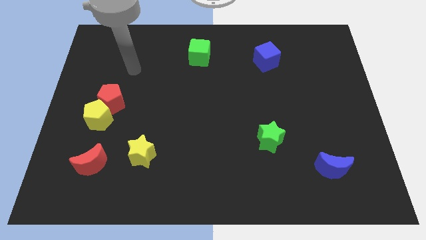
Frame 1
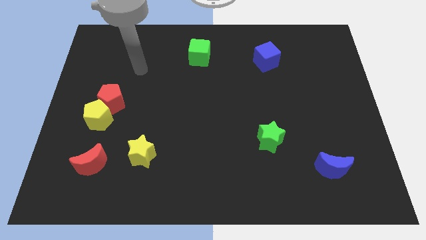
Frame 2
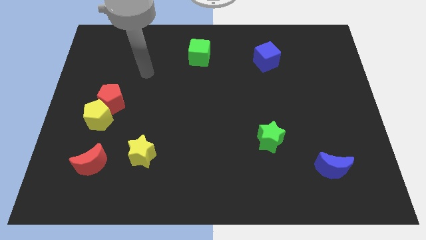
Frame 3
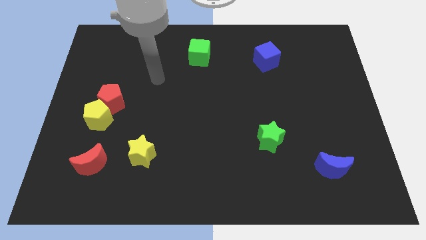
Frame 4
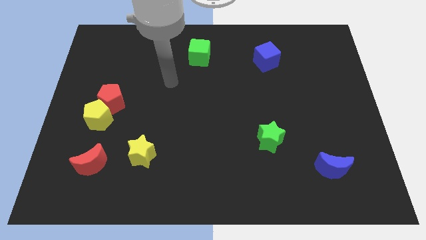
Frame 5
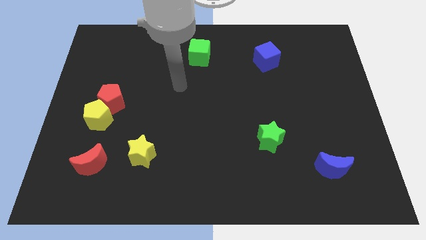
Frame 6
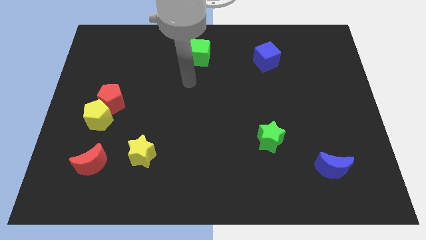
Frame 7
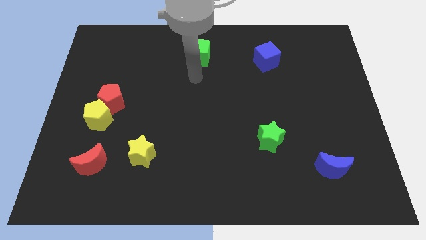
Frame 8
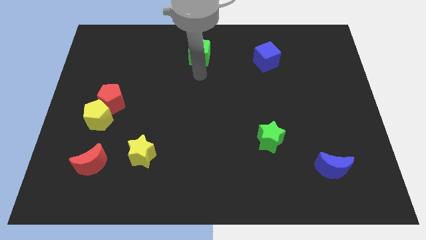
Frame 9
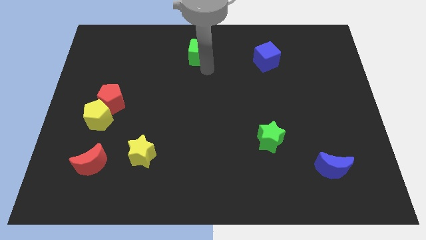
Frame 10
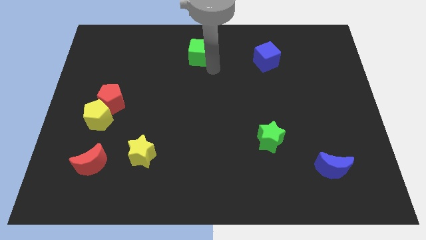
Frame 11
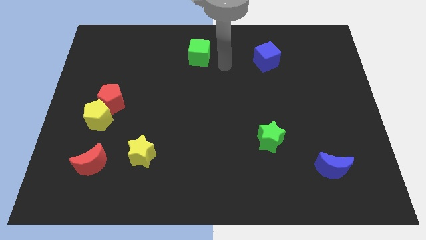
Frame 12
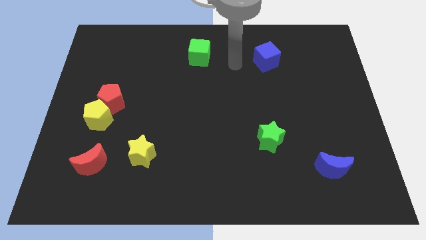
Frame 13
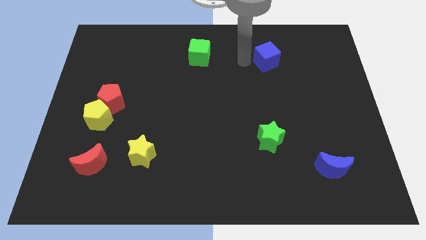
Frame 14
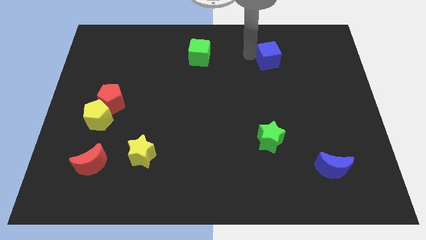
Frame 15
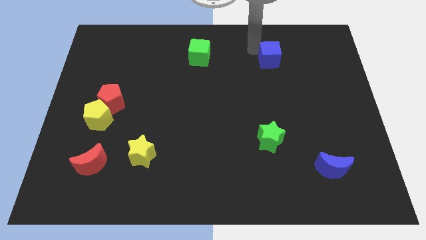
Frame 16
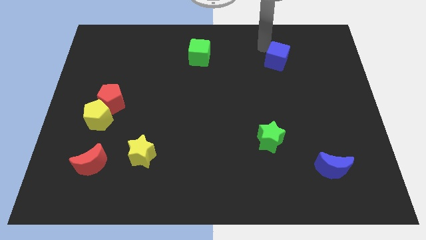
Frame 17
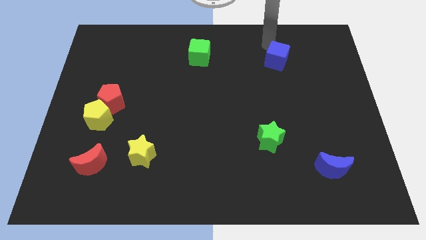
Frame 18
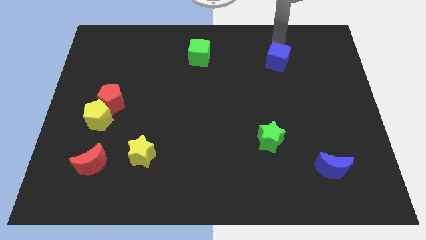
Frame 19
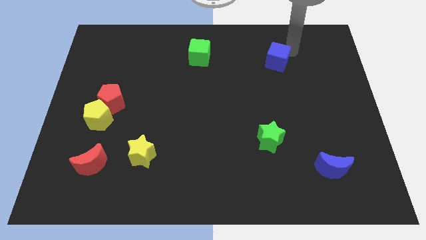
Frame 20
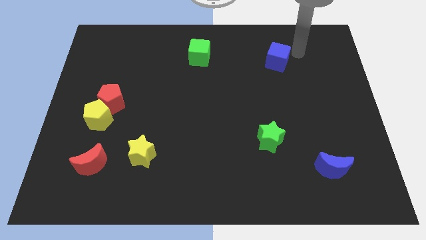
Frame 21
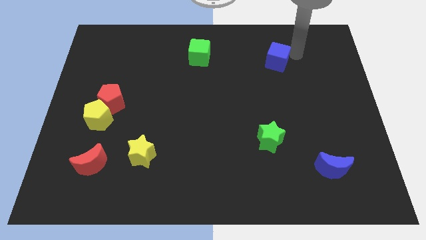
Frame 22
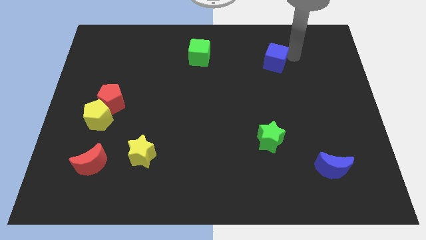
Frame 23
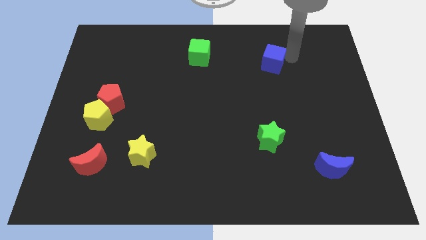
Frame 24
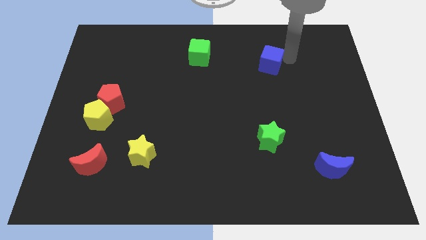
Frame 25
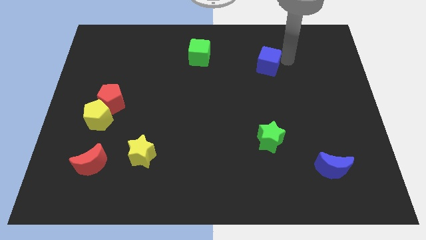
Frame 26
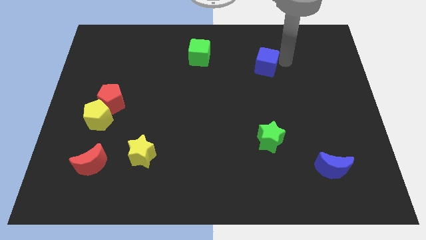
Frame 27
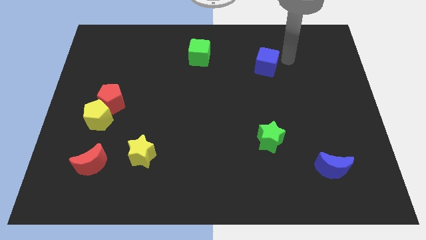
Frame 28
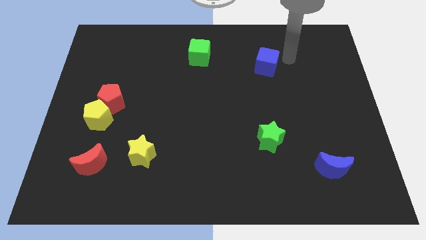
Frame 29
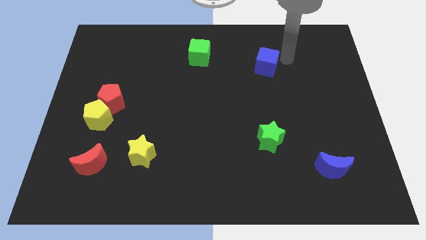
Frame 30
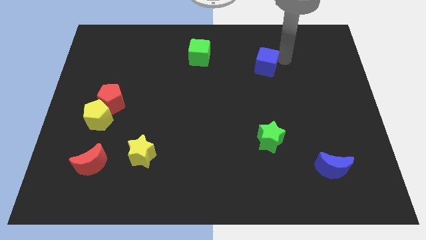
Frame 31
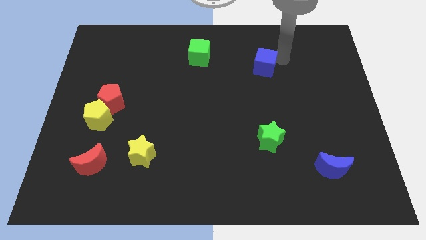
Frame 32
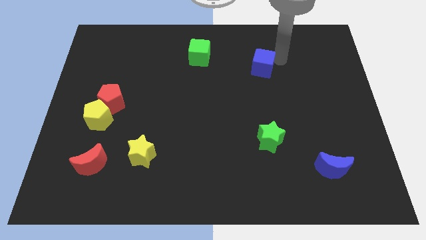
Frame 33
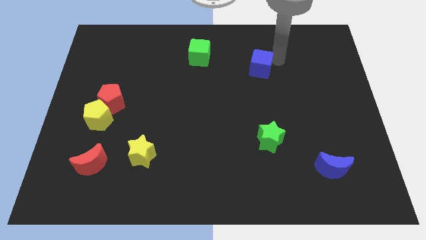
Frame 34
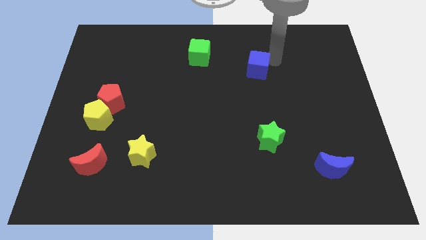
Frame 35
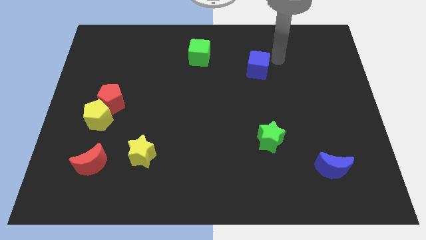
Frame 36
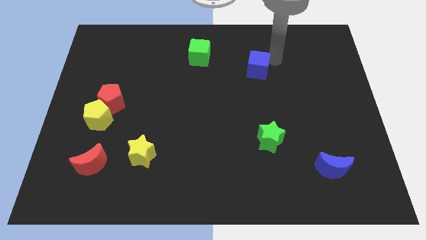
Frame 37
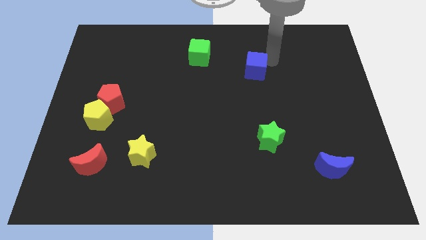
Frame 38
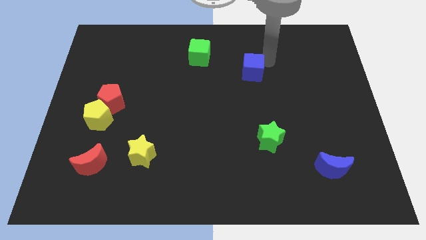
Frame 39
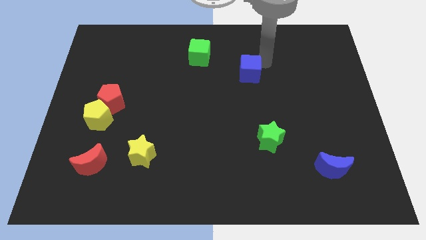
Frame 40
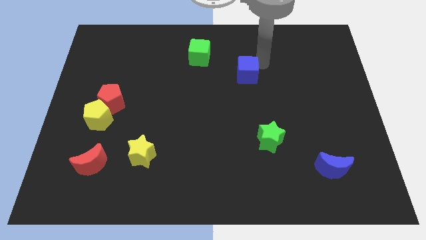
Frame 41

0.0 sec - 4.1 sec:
move the blue cube slightly downwards and left diagonally

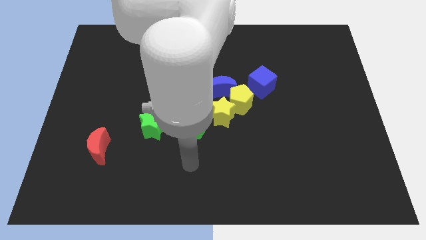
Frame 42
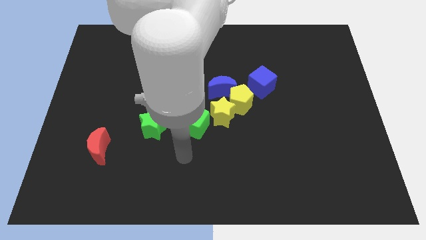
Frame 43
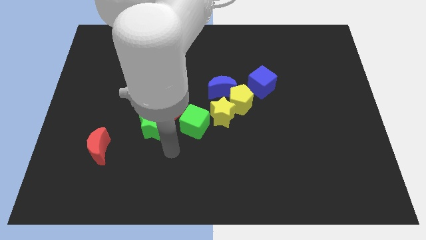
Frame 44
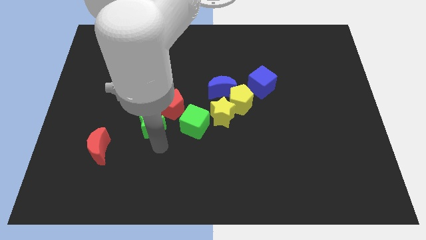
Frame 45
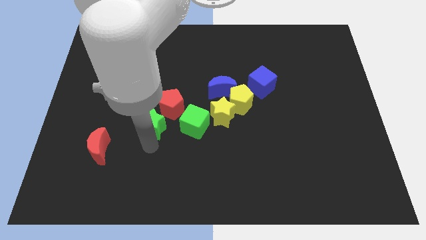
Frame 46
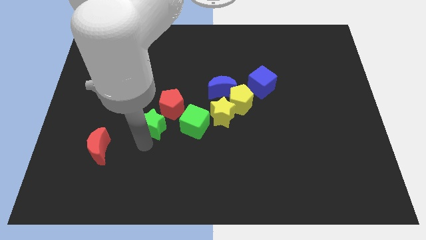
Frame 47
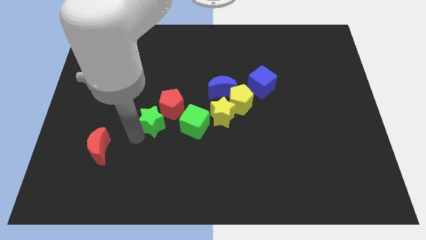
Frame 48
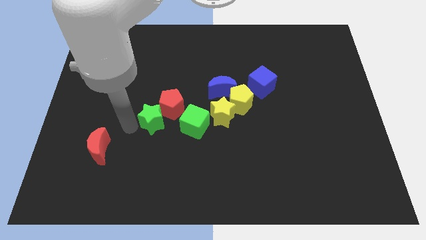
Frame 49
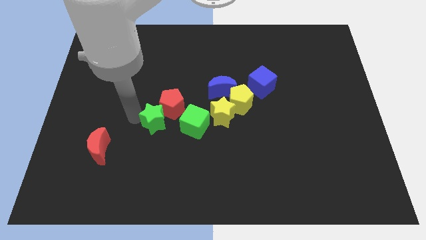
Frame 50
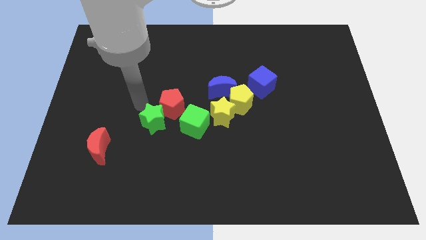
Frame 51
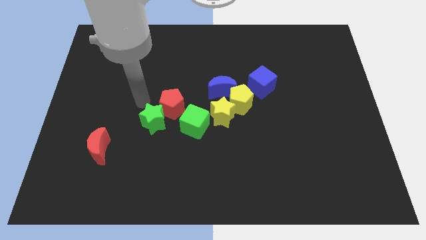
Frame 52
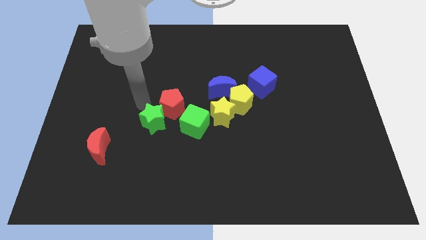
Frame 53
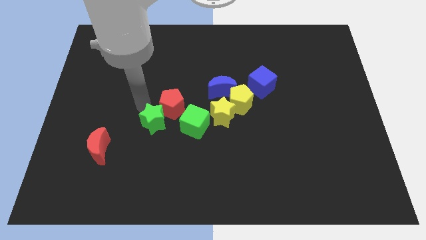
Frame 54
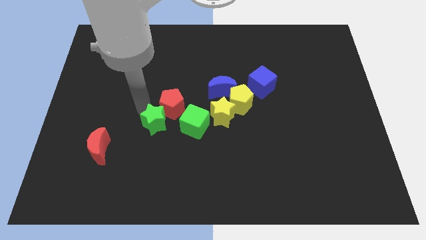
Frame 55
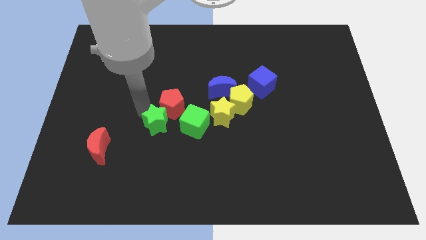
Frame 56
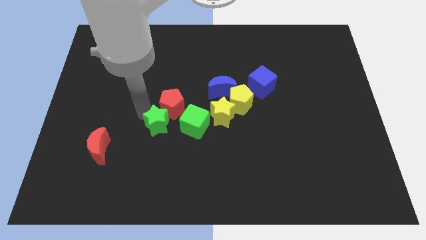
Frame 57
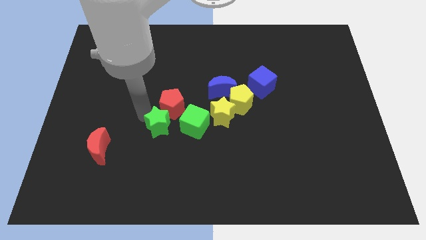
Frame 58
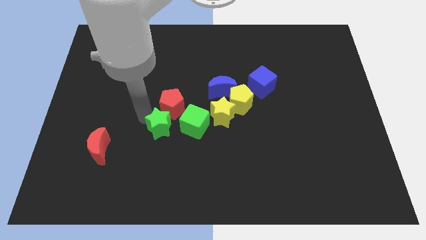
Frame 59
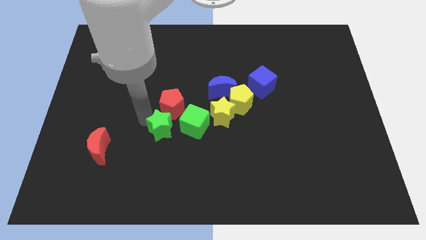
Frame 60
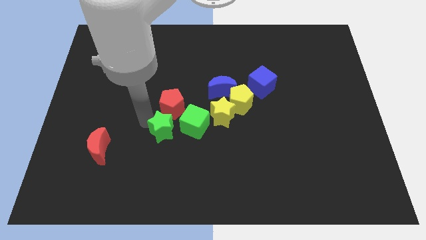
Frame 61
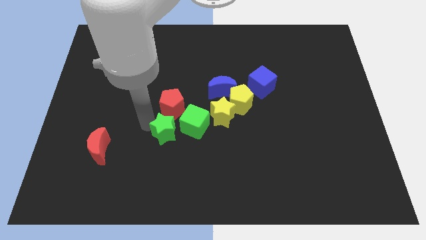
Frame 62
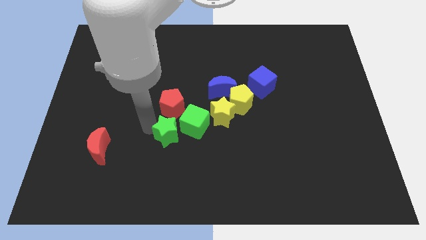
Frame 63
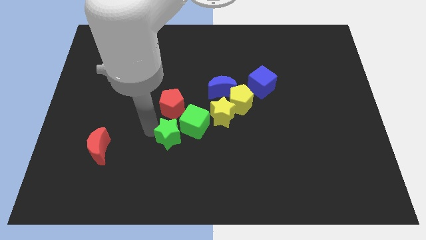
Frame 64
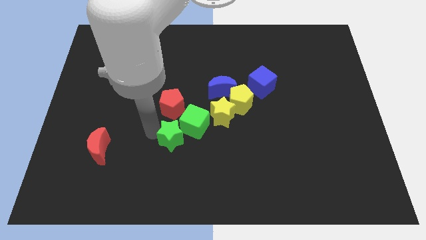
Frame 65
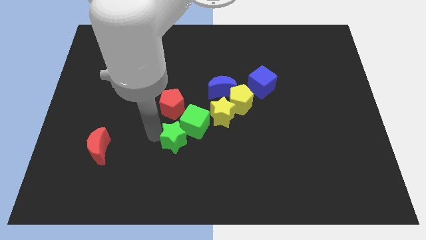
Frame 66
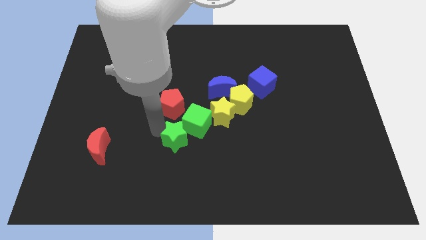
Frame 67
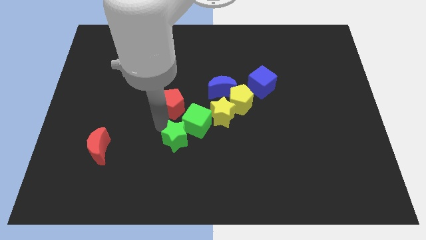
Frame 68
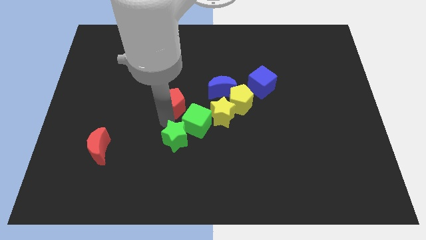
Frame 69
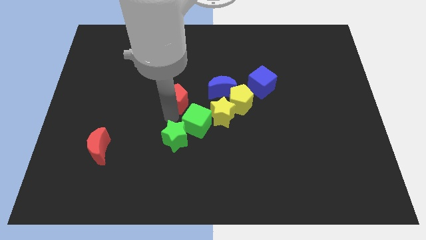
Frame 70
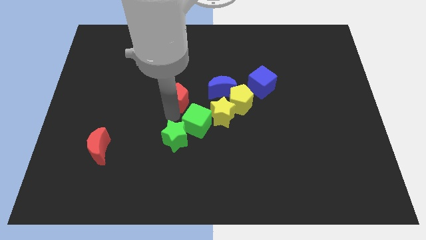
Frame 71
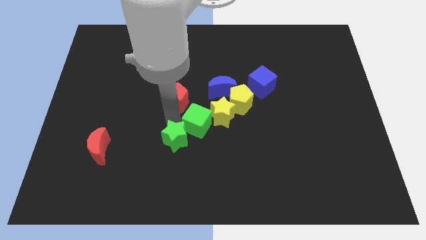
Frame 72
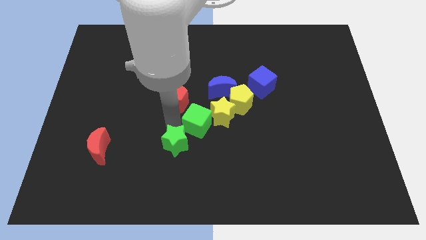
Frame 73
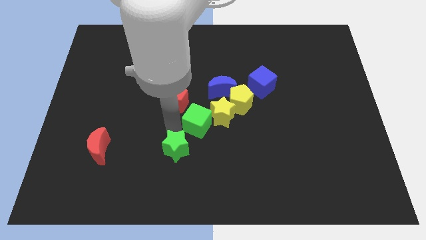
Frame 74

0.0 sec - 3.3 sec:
move the green star a bit downwards and to the right diagonally

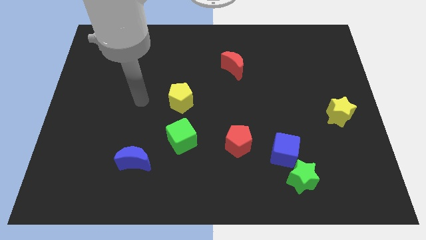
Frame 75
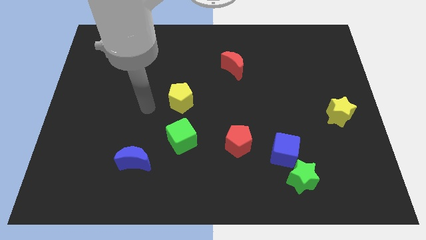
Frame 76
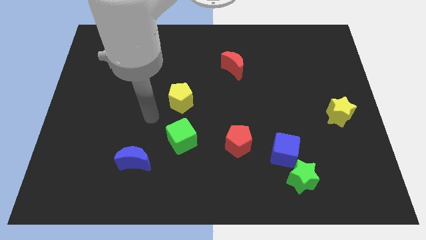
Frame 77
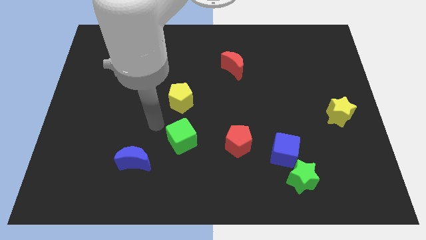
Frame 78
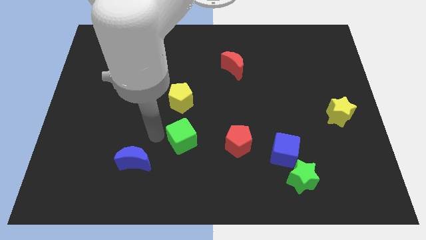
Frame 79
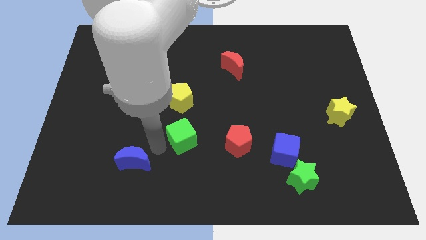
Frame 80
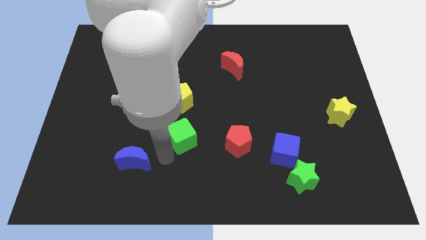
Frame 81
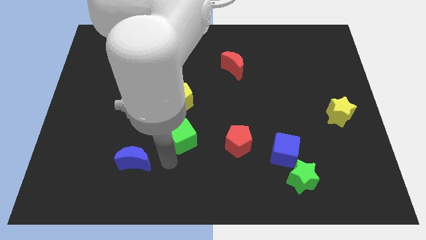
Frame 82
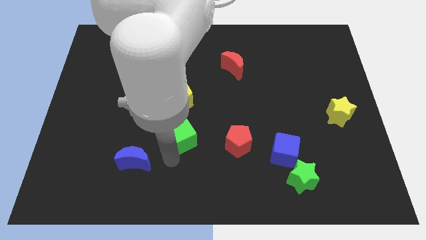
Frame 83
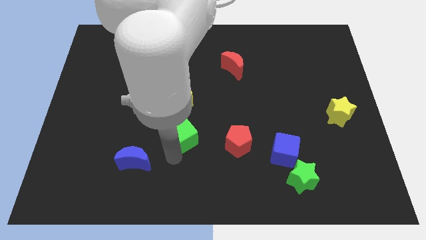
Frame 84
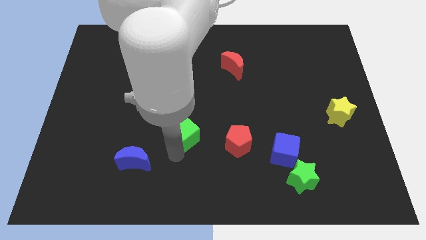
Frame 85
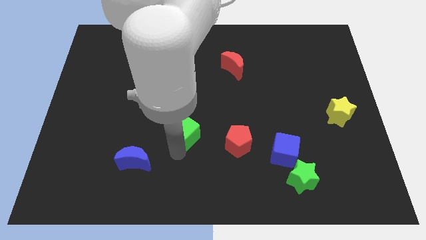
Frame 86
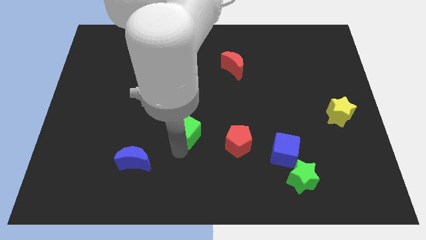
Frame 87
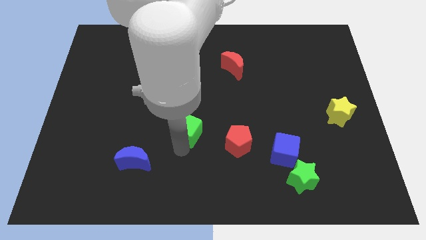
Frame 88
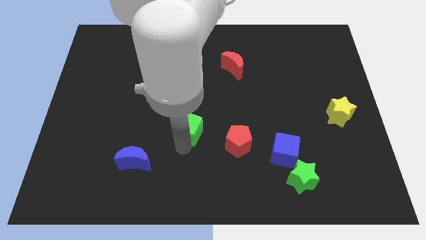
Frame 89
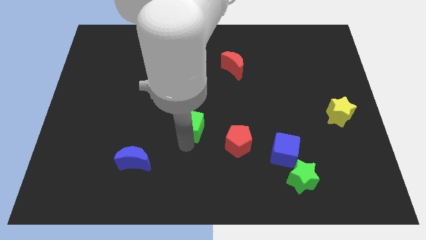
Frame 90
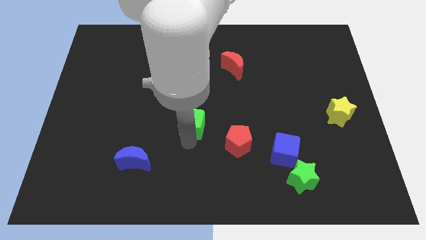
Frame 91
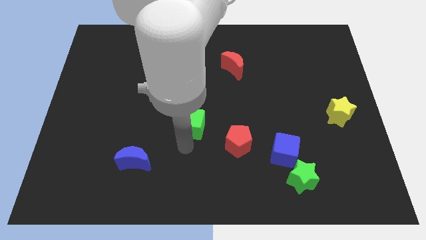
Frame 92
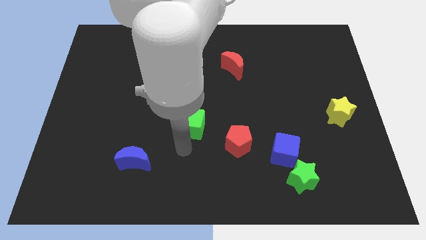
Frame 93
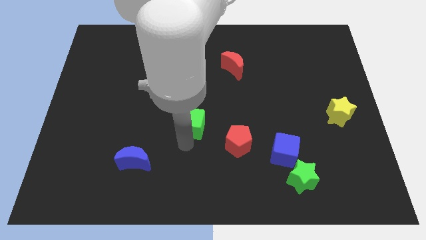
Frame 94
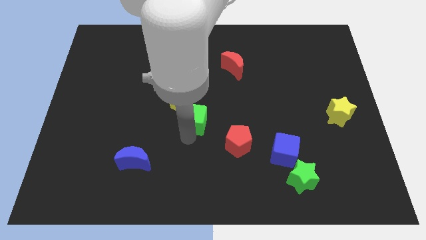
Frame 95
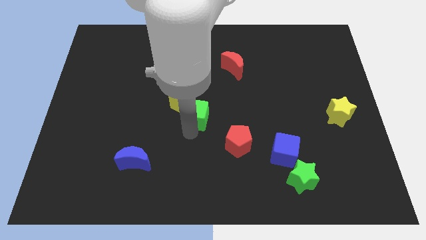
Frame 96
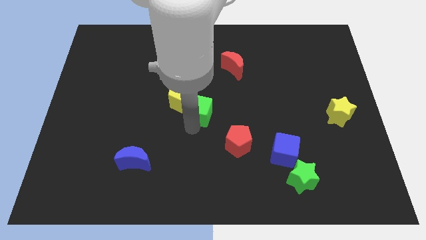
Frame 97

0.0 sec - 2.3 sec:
push the green cube a little bit up
